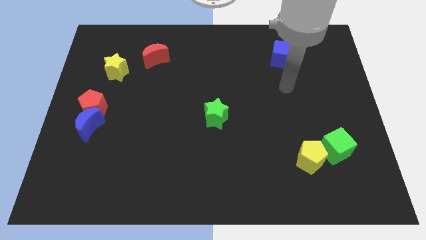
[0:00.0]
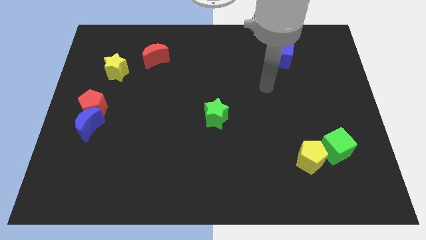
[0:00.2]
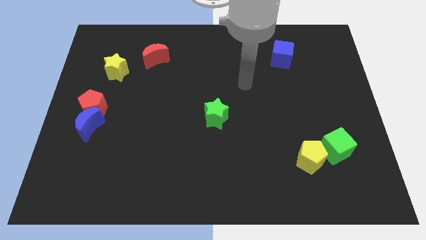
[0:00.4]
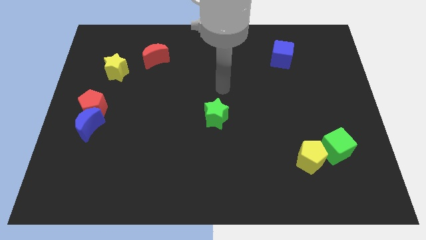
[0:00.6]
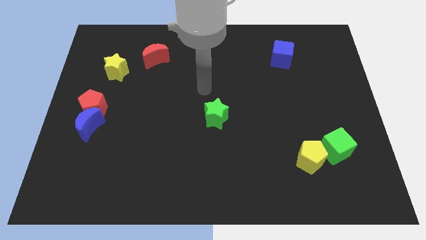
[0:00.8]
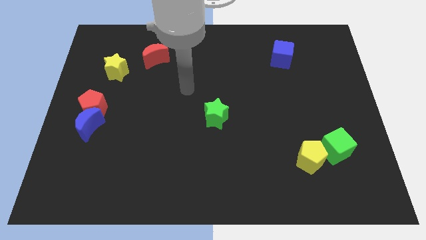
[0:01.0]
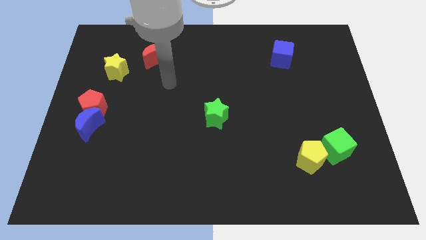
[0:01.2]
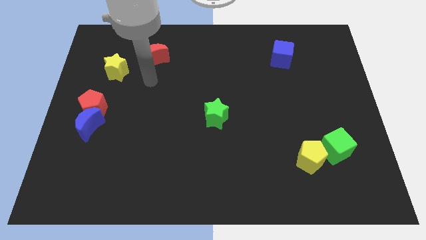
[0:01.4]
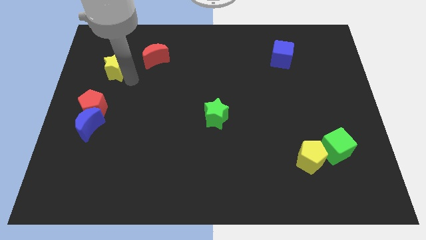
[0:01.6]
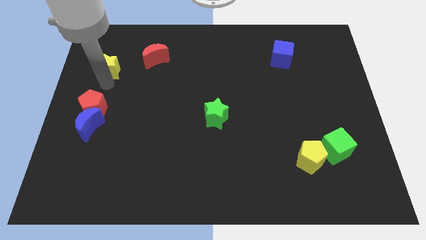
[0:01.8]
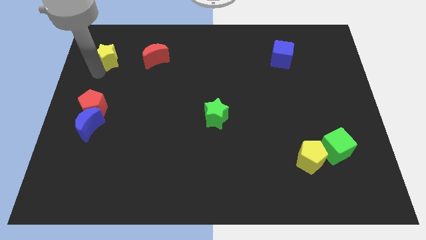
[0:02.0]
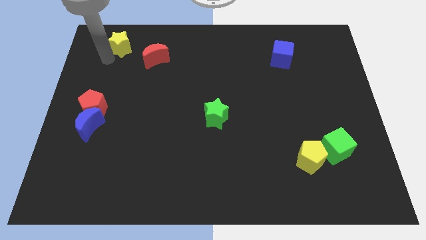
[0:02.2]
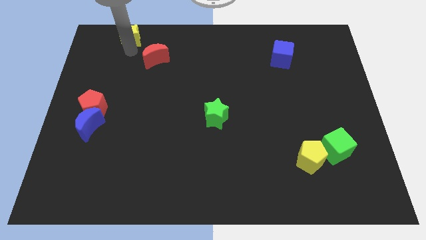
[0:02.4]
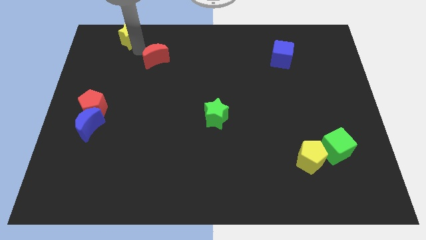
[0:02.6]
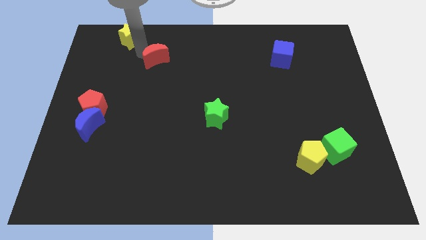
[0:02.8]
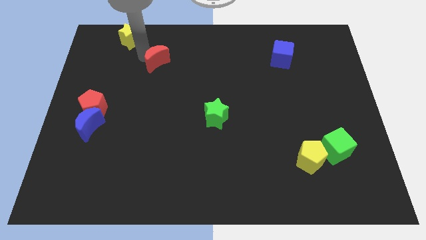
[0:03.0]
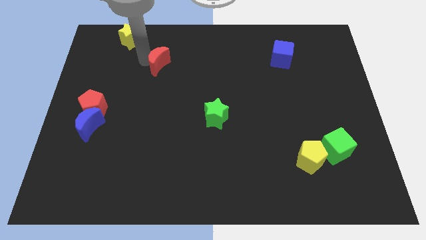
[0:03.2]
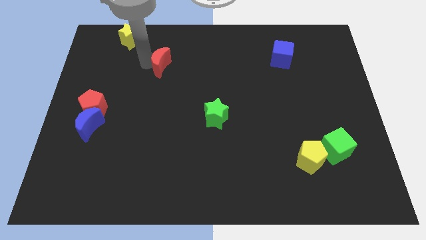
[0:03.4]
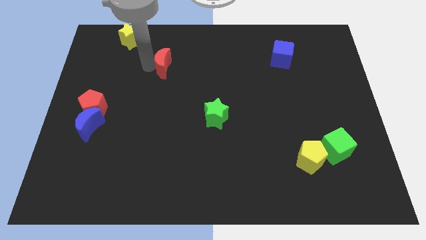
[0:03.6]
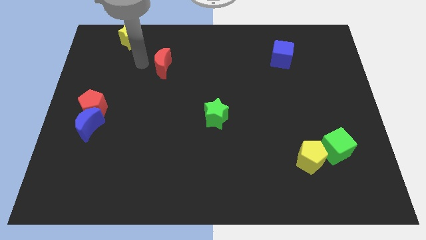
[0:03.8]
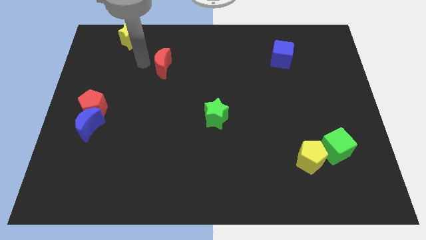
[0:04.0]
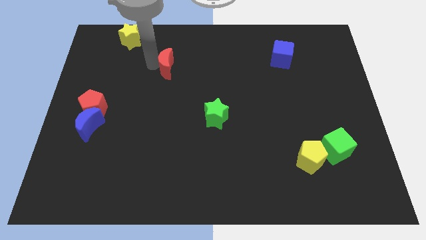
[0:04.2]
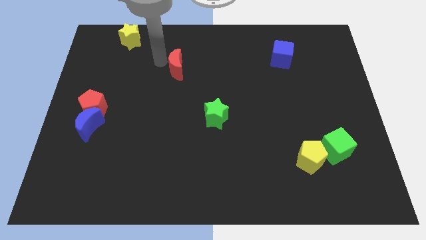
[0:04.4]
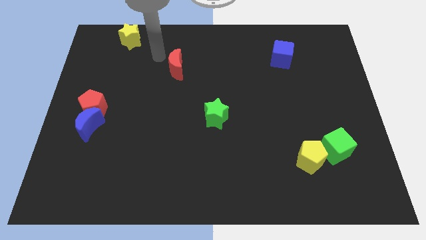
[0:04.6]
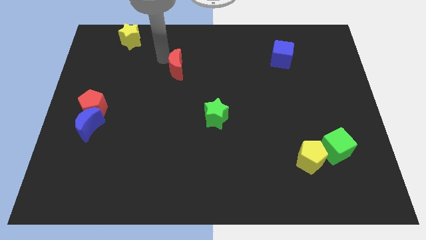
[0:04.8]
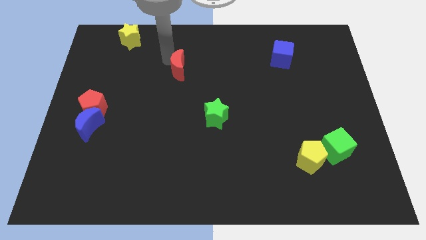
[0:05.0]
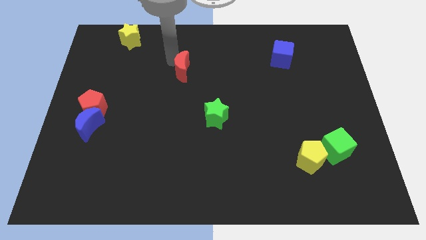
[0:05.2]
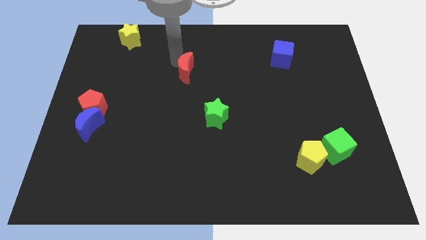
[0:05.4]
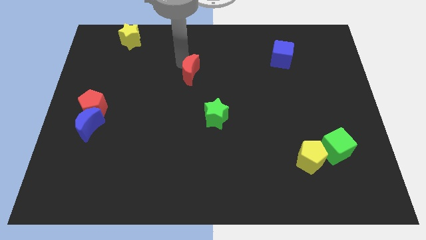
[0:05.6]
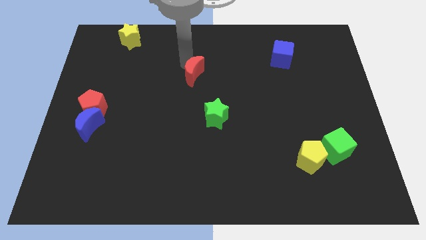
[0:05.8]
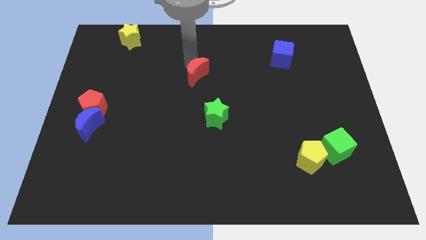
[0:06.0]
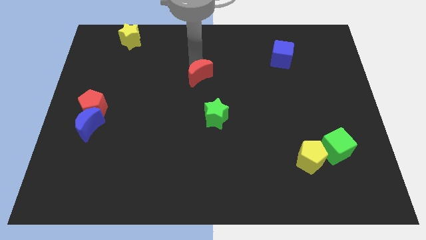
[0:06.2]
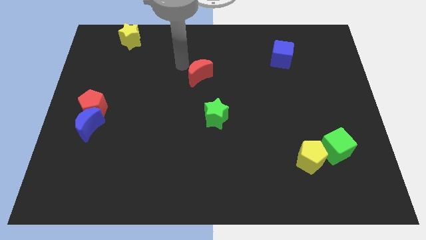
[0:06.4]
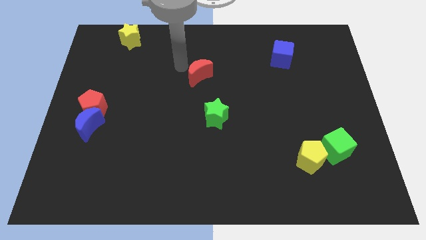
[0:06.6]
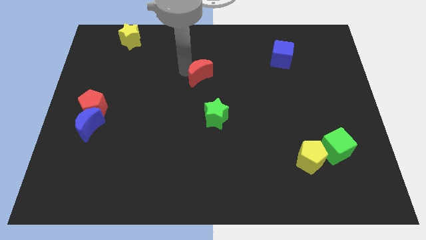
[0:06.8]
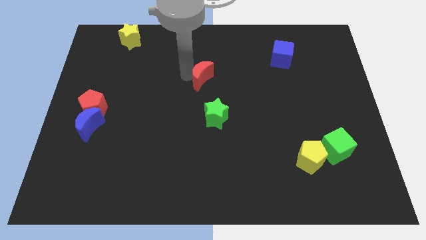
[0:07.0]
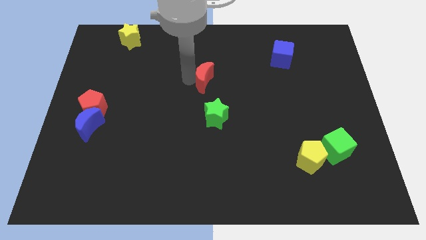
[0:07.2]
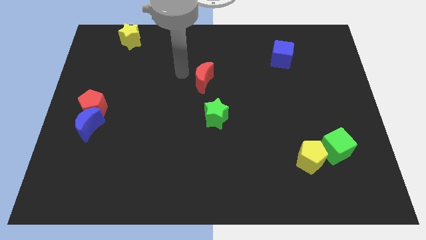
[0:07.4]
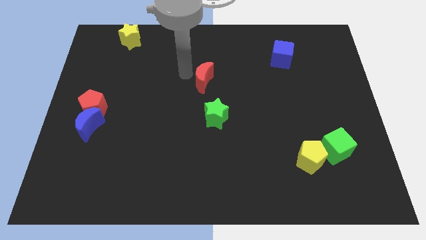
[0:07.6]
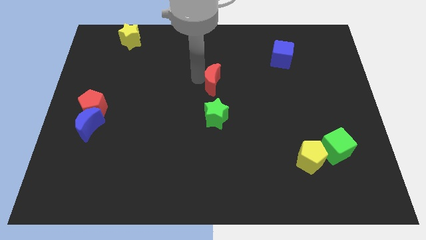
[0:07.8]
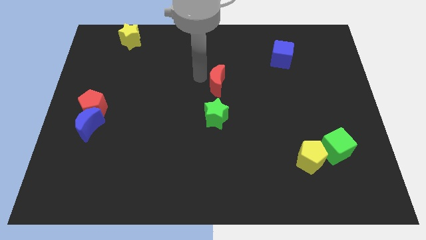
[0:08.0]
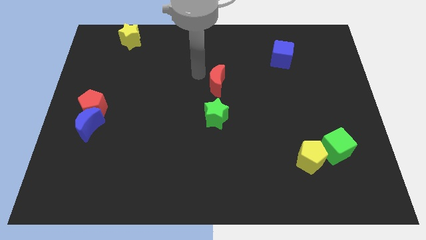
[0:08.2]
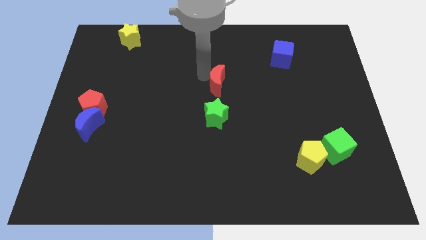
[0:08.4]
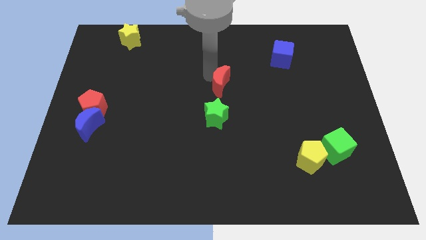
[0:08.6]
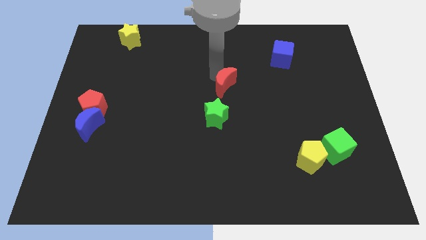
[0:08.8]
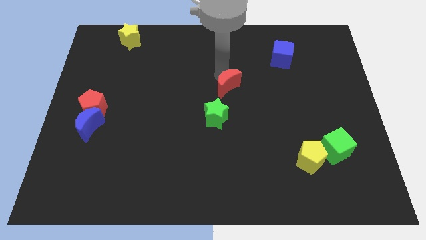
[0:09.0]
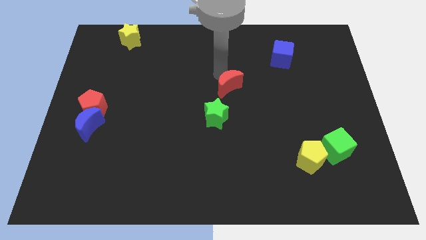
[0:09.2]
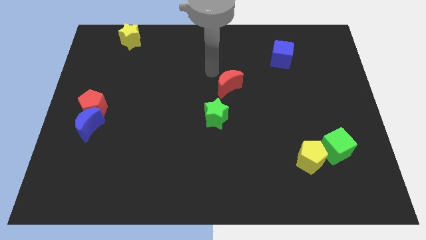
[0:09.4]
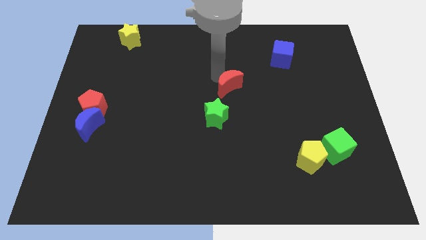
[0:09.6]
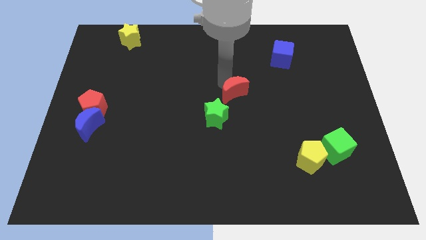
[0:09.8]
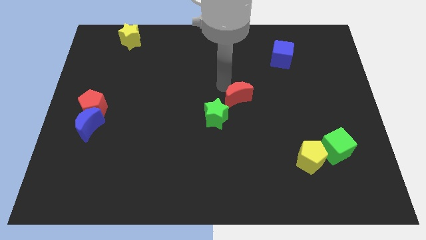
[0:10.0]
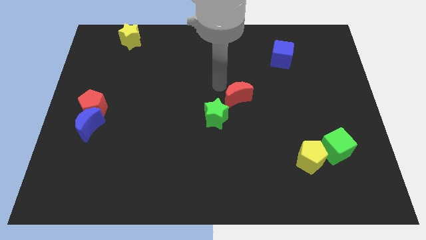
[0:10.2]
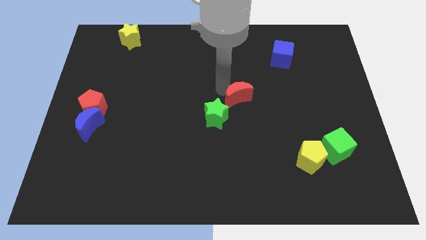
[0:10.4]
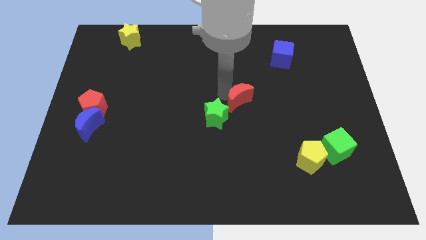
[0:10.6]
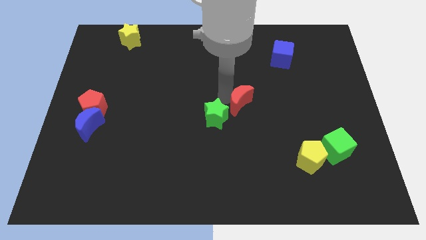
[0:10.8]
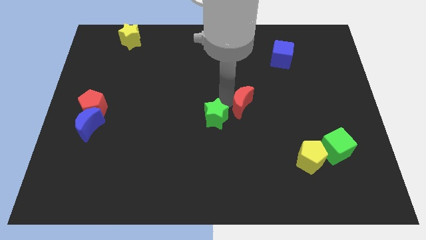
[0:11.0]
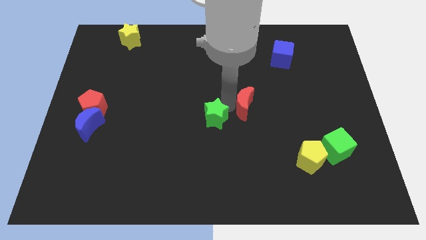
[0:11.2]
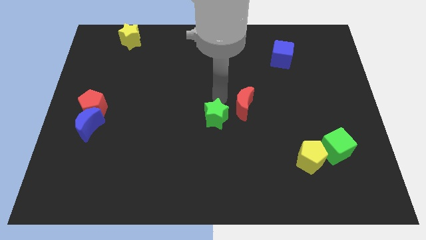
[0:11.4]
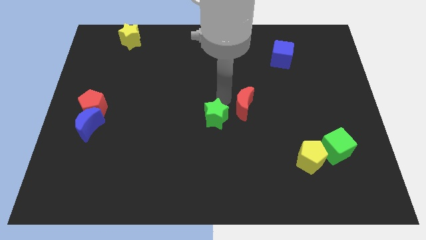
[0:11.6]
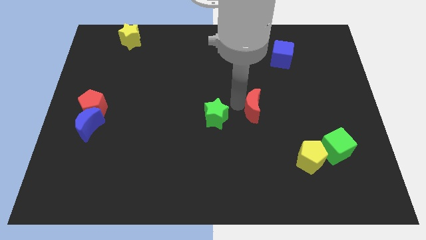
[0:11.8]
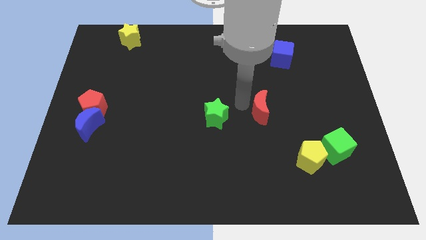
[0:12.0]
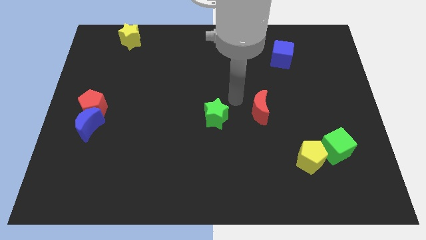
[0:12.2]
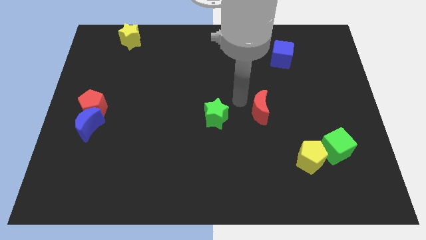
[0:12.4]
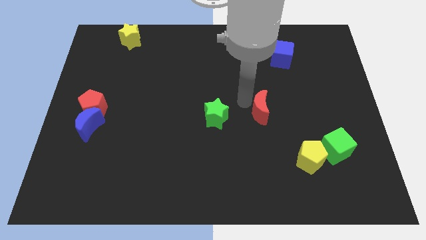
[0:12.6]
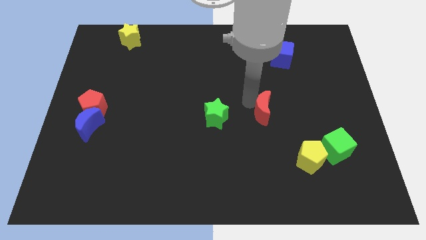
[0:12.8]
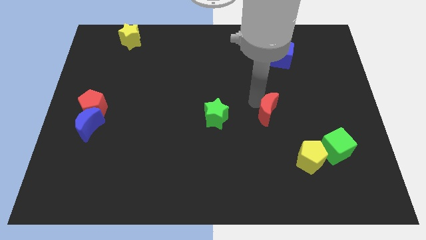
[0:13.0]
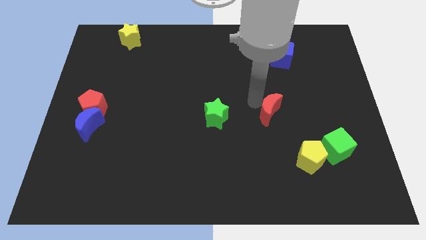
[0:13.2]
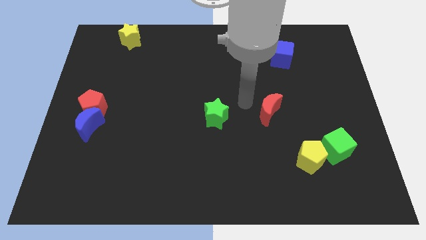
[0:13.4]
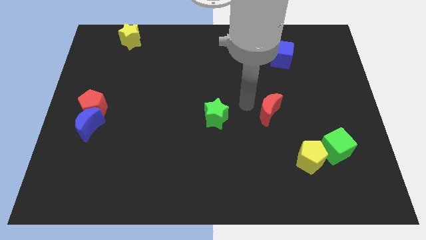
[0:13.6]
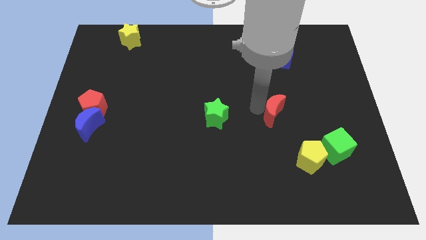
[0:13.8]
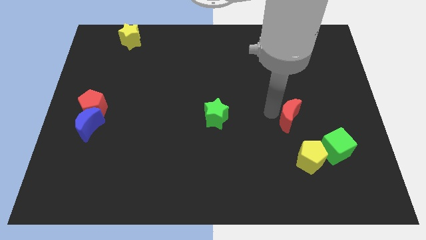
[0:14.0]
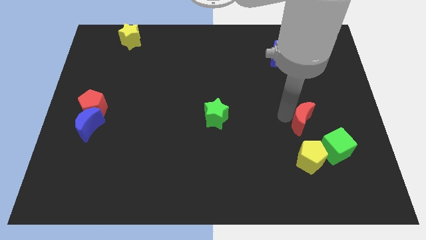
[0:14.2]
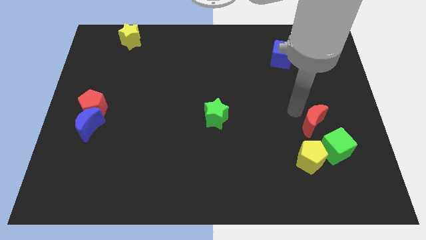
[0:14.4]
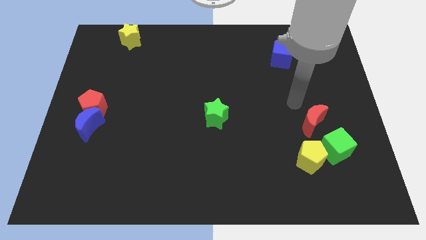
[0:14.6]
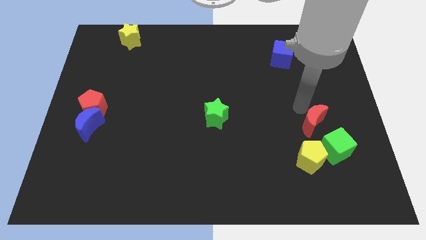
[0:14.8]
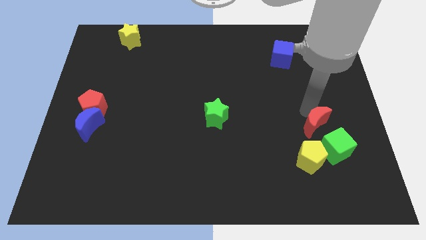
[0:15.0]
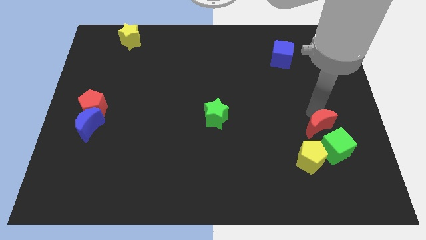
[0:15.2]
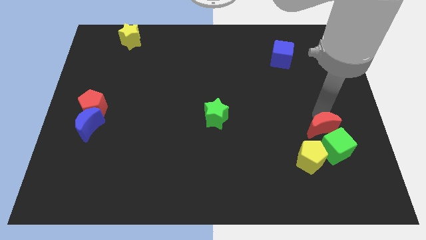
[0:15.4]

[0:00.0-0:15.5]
put the red moon towards the green cube

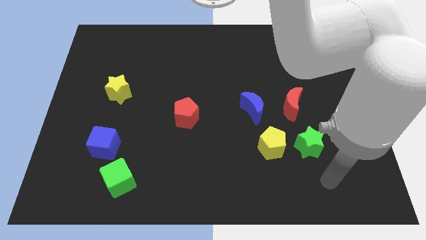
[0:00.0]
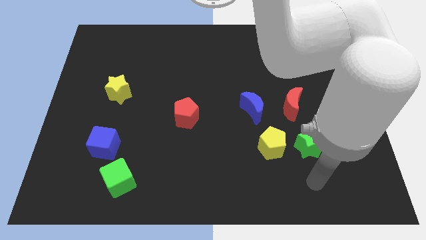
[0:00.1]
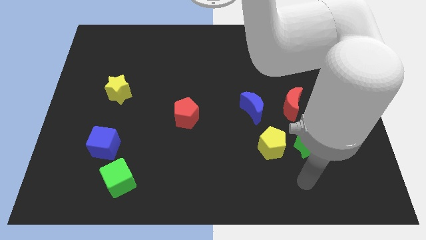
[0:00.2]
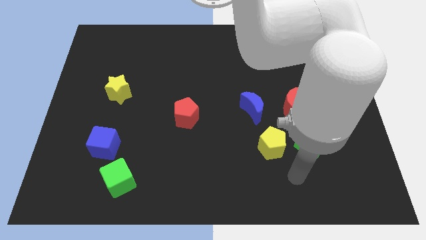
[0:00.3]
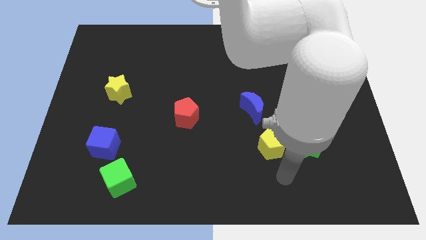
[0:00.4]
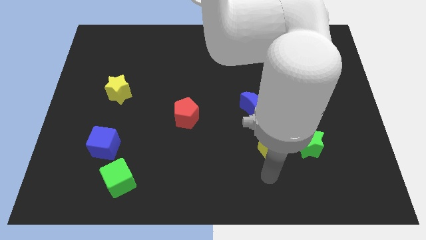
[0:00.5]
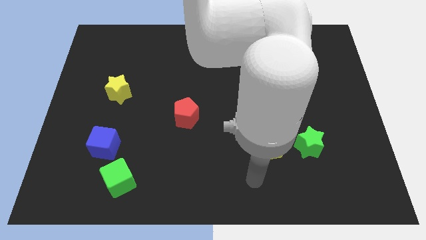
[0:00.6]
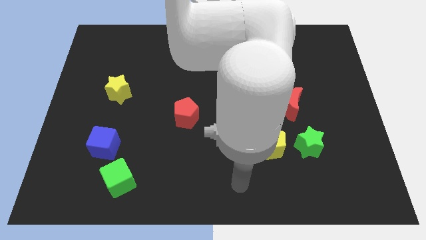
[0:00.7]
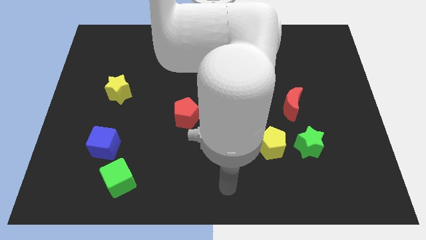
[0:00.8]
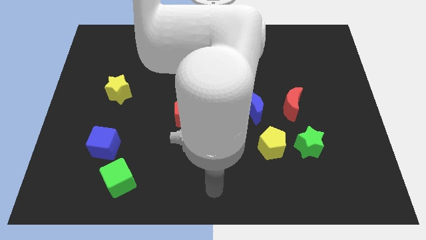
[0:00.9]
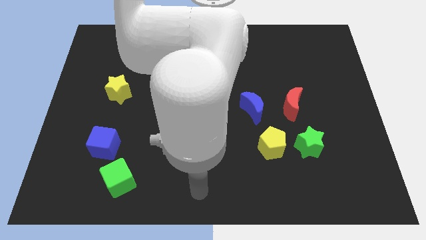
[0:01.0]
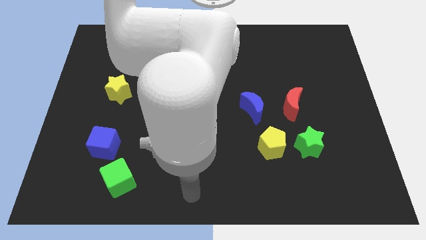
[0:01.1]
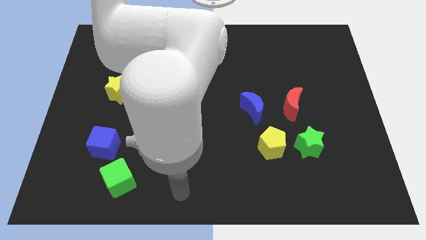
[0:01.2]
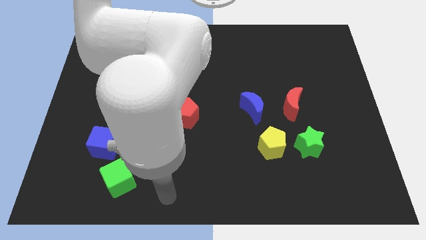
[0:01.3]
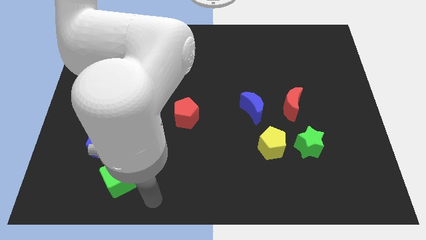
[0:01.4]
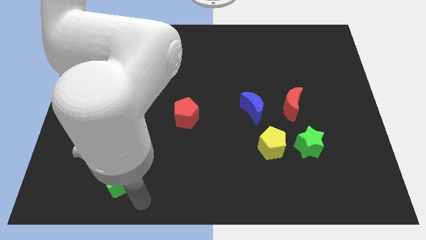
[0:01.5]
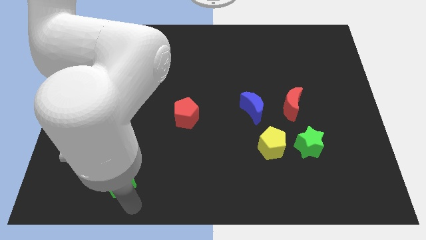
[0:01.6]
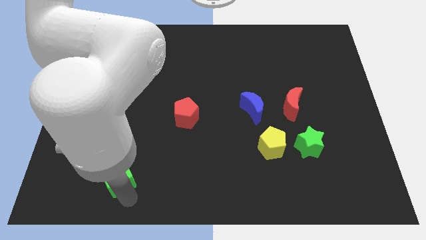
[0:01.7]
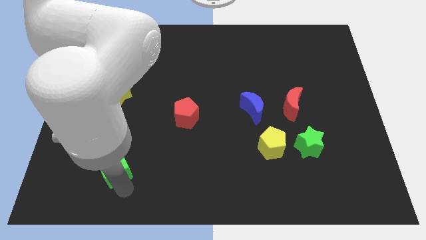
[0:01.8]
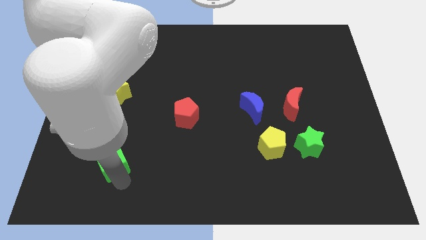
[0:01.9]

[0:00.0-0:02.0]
push the green cube towards the blue cube
